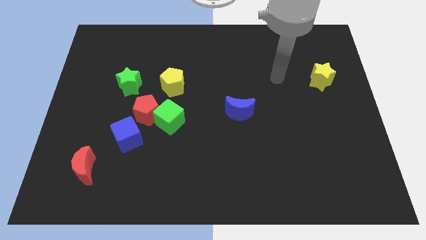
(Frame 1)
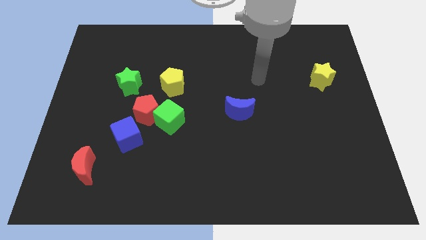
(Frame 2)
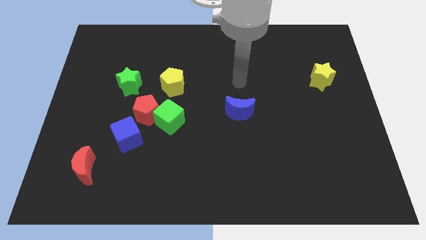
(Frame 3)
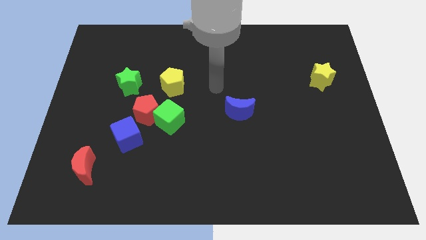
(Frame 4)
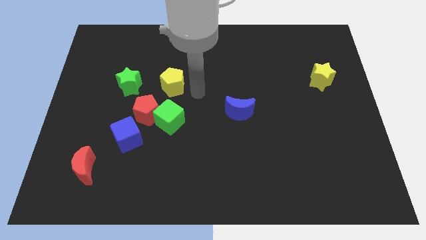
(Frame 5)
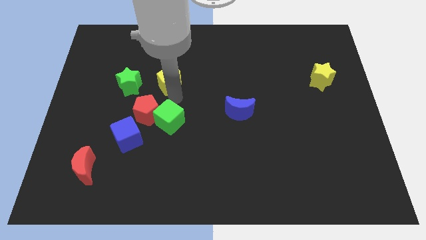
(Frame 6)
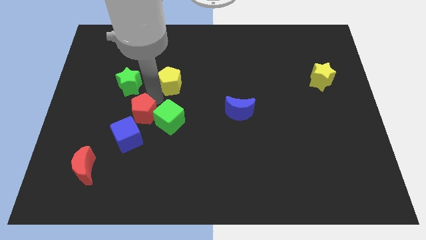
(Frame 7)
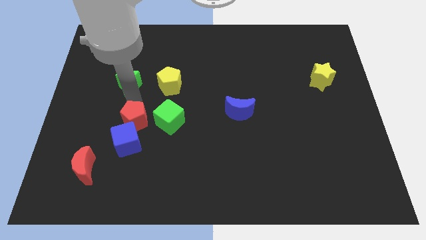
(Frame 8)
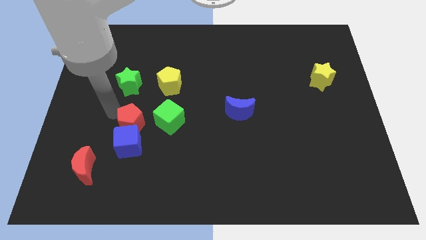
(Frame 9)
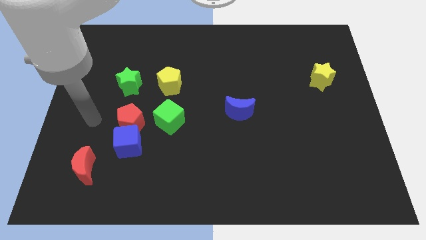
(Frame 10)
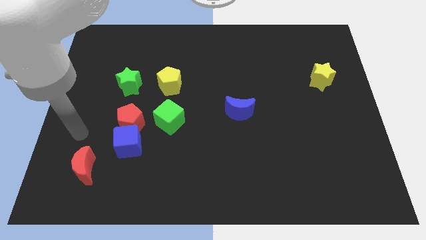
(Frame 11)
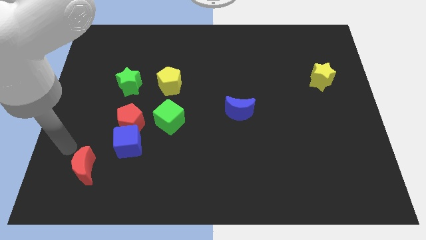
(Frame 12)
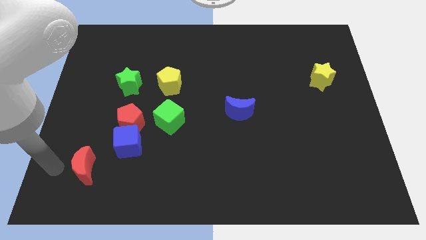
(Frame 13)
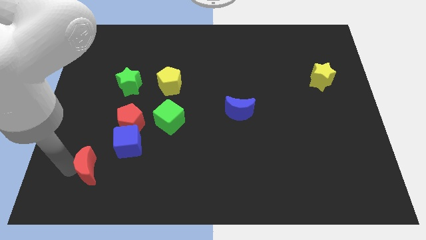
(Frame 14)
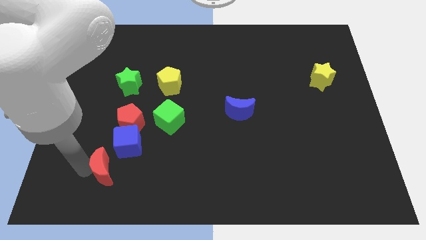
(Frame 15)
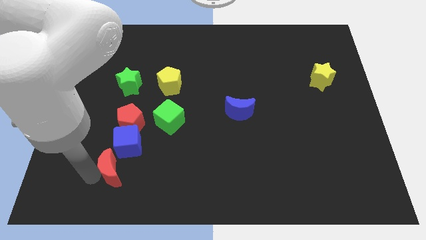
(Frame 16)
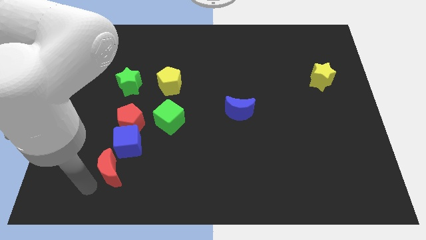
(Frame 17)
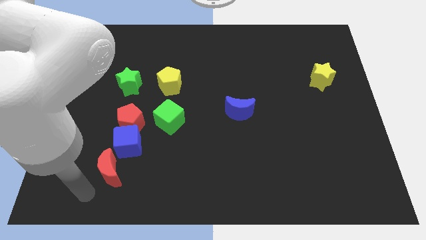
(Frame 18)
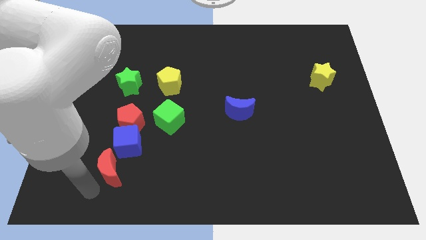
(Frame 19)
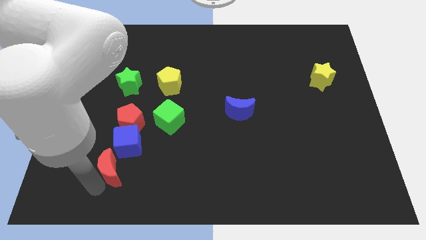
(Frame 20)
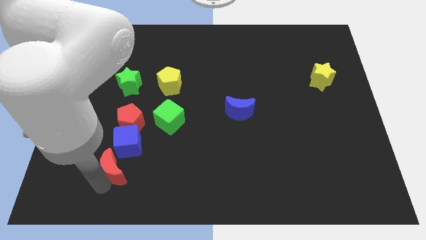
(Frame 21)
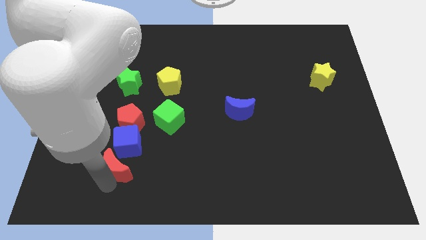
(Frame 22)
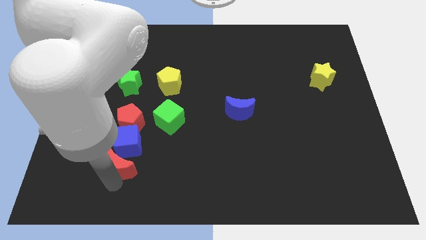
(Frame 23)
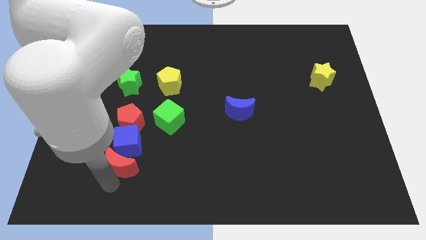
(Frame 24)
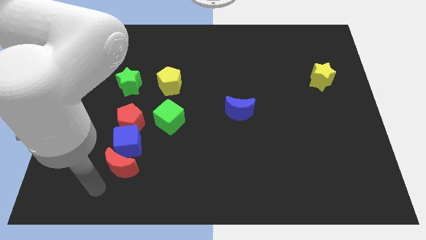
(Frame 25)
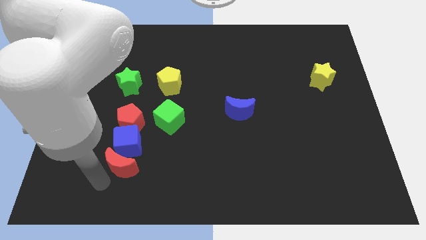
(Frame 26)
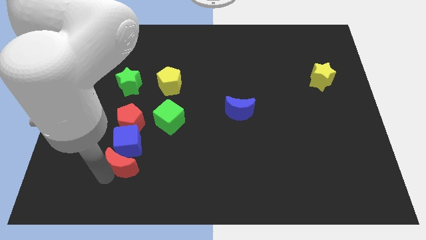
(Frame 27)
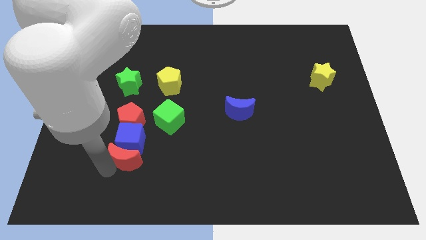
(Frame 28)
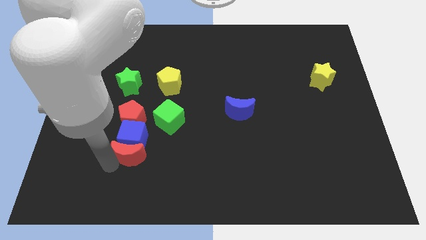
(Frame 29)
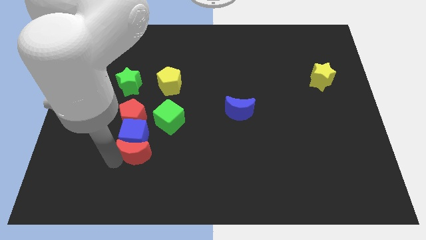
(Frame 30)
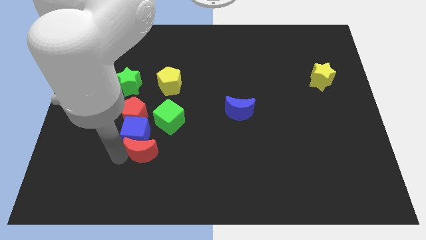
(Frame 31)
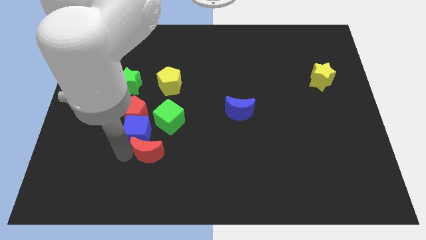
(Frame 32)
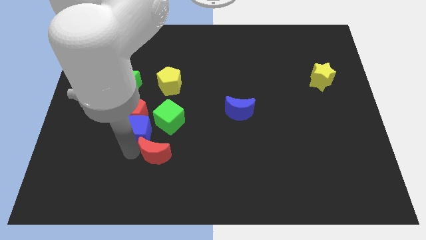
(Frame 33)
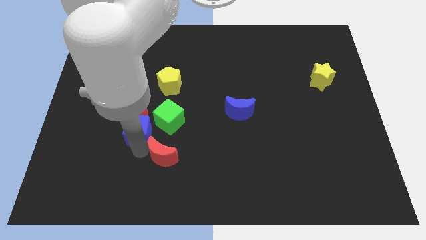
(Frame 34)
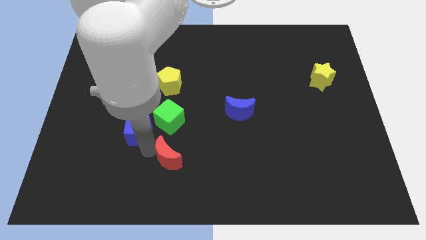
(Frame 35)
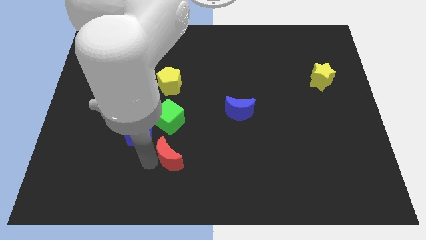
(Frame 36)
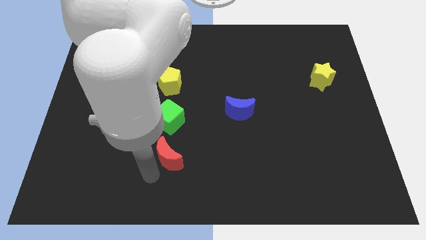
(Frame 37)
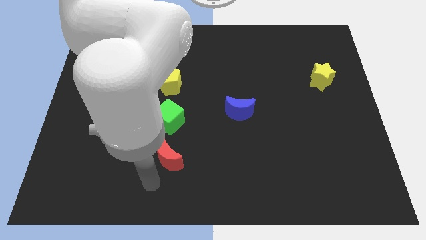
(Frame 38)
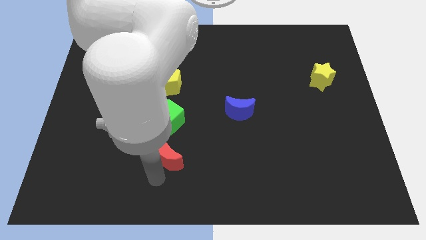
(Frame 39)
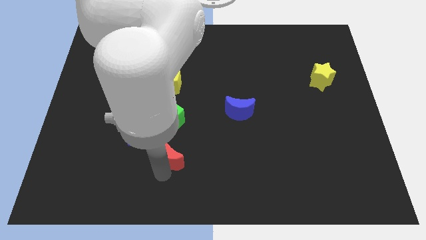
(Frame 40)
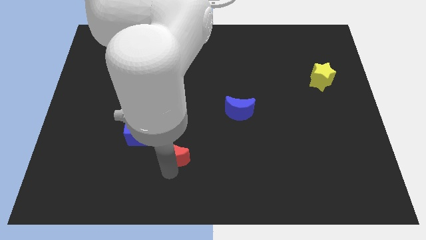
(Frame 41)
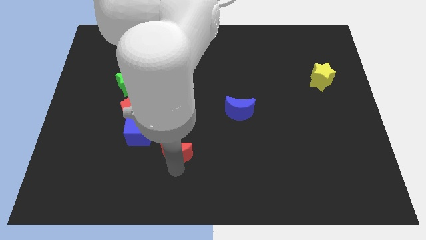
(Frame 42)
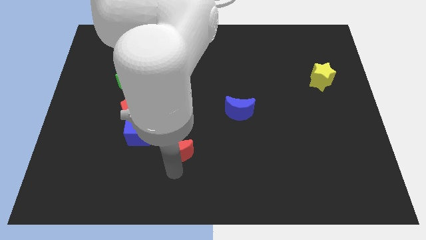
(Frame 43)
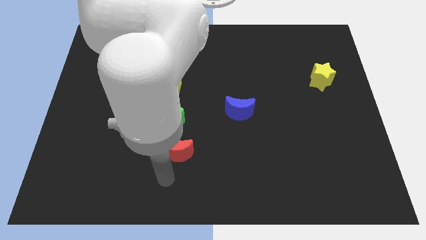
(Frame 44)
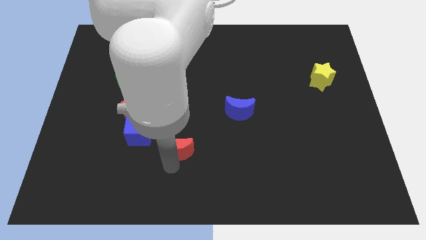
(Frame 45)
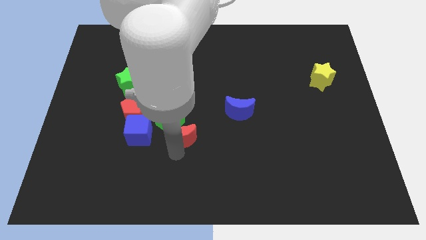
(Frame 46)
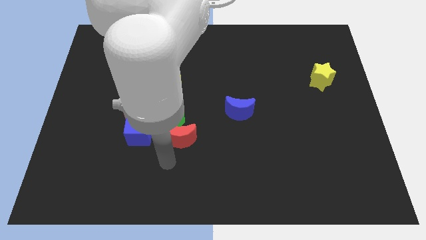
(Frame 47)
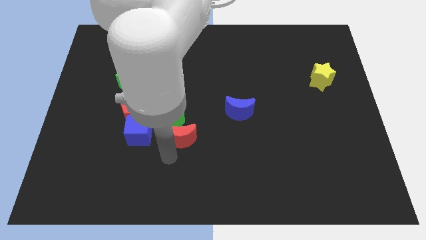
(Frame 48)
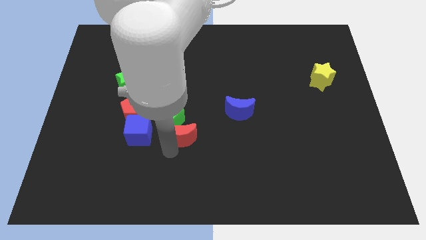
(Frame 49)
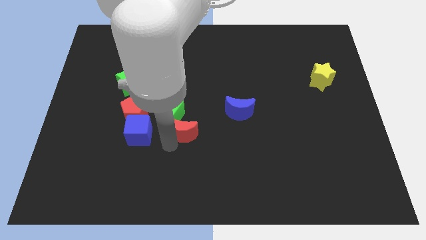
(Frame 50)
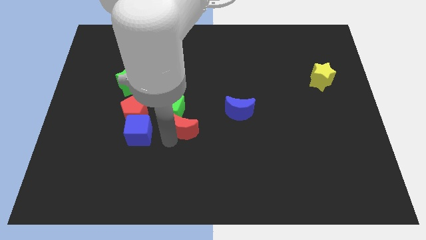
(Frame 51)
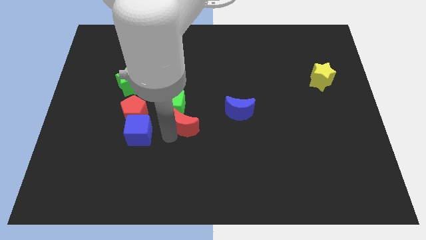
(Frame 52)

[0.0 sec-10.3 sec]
push the red moon up and to the right

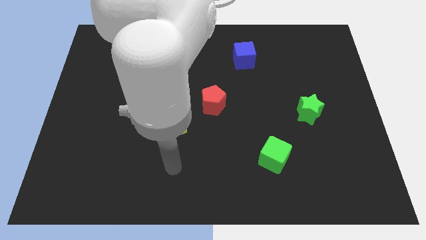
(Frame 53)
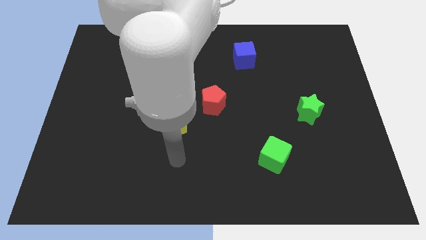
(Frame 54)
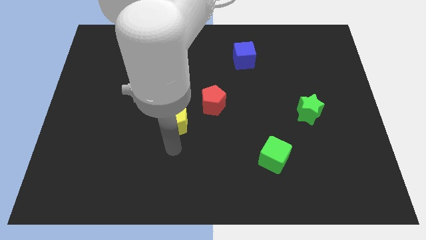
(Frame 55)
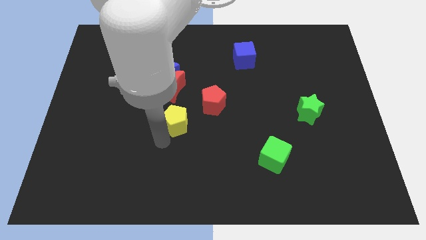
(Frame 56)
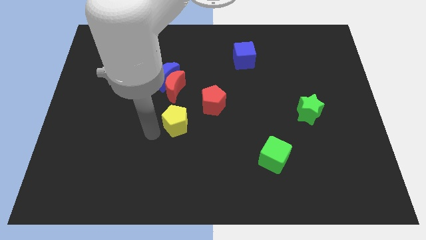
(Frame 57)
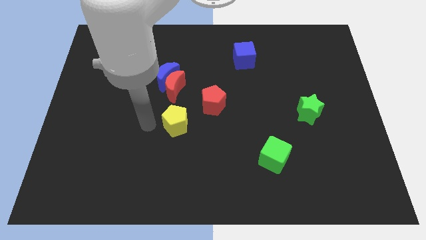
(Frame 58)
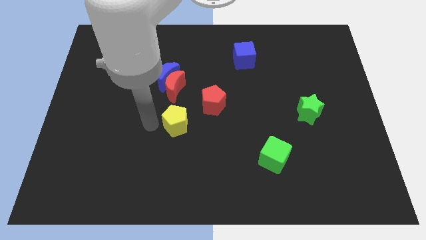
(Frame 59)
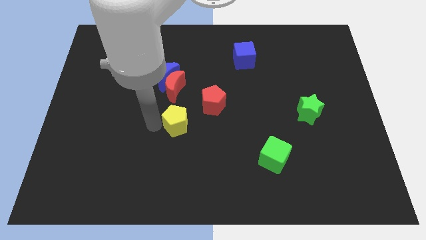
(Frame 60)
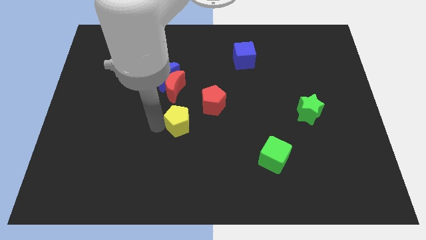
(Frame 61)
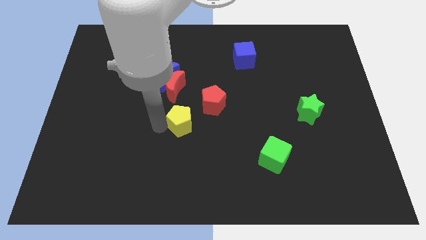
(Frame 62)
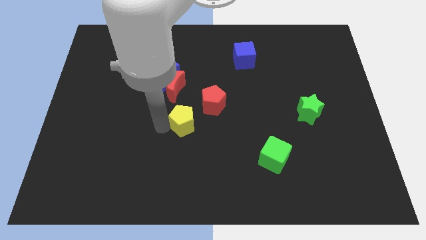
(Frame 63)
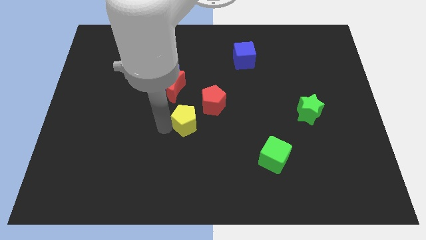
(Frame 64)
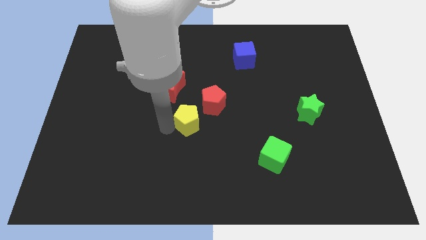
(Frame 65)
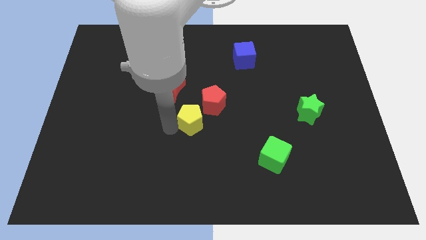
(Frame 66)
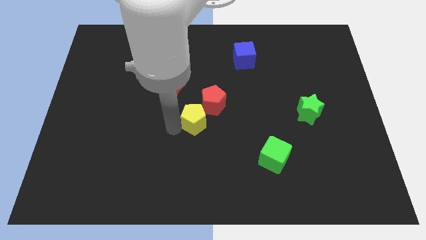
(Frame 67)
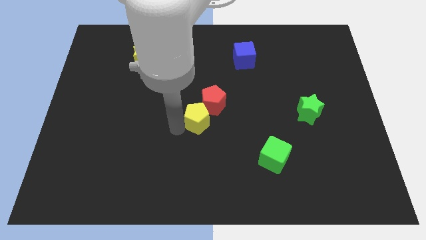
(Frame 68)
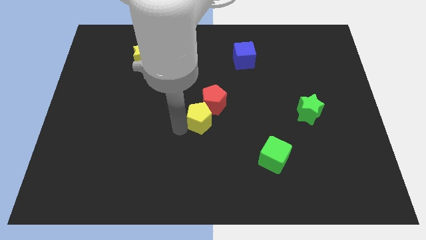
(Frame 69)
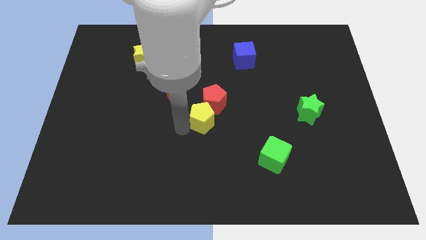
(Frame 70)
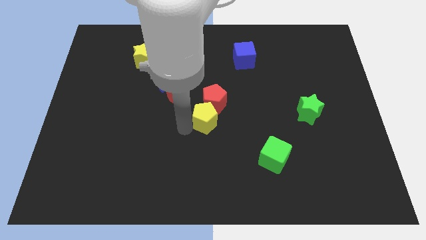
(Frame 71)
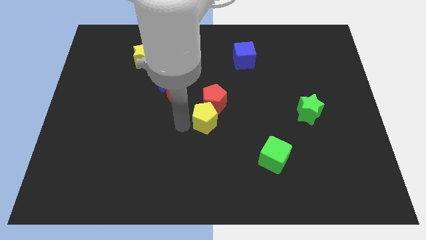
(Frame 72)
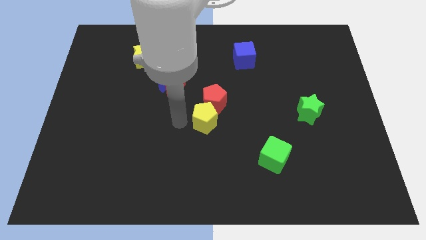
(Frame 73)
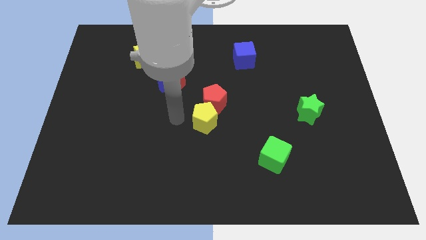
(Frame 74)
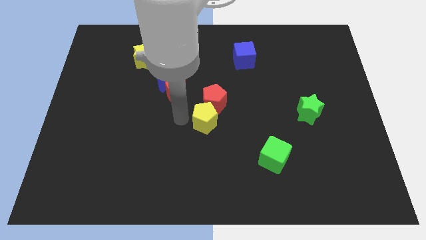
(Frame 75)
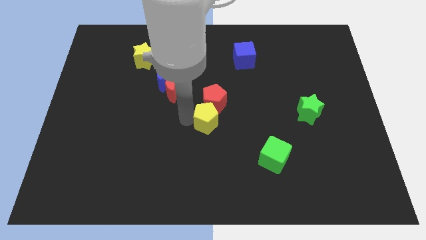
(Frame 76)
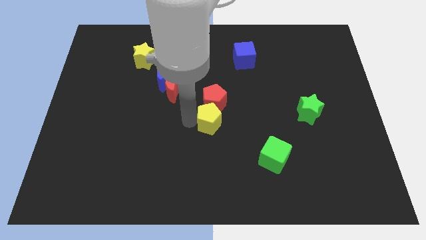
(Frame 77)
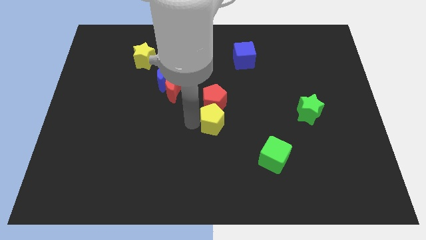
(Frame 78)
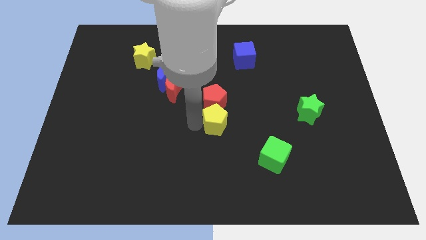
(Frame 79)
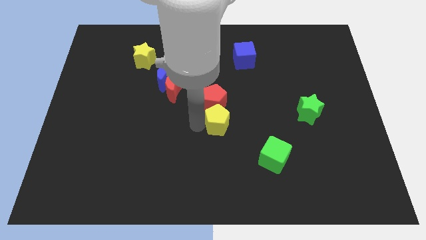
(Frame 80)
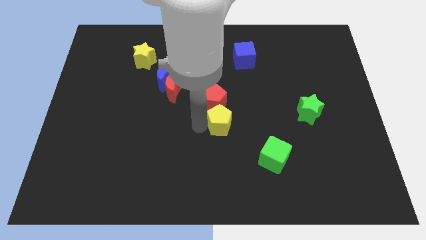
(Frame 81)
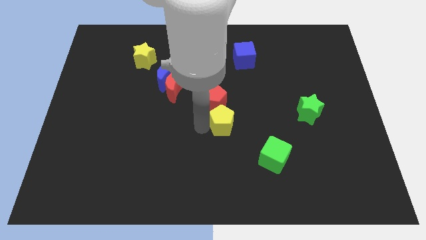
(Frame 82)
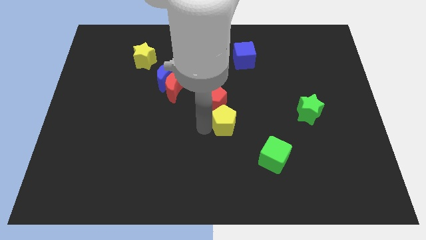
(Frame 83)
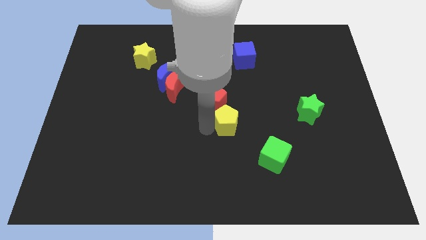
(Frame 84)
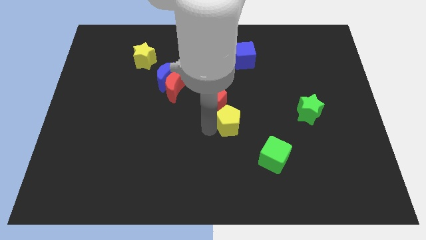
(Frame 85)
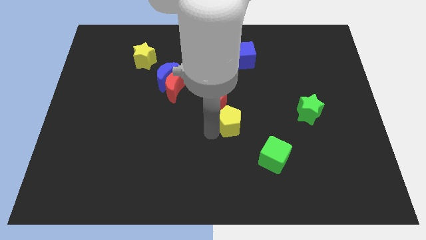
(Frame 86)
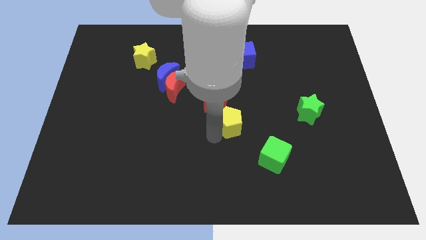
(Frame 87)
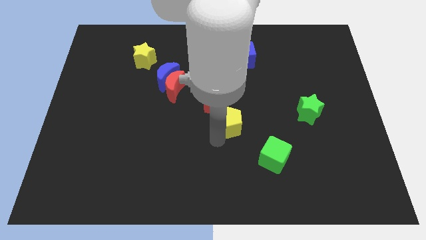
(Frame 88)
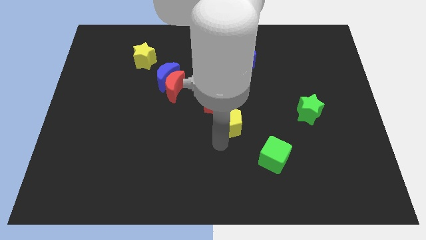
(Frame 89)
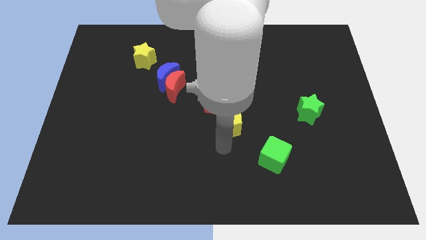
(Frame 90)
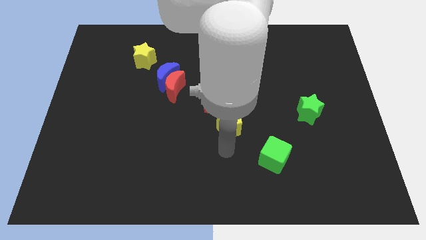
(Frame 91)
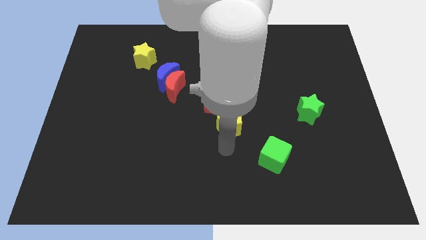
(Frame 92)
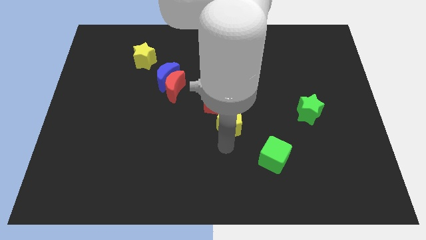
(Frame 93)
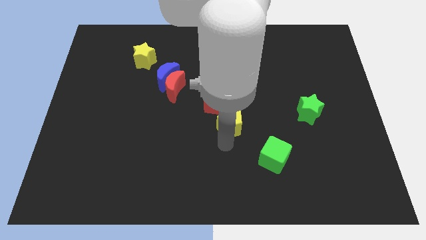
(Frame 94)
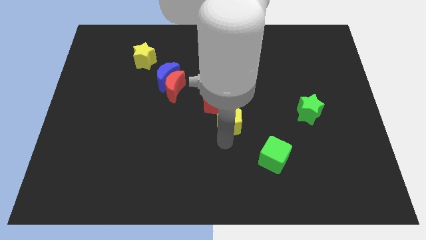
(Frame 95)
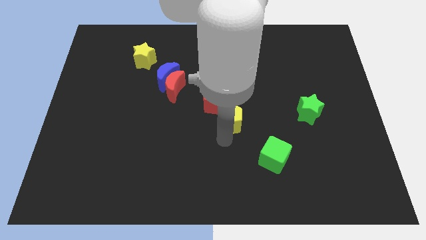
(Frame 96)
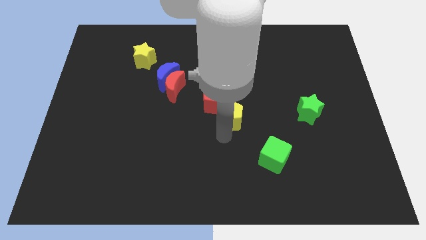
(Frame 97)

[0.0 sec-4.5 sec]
slide the yellow pentagon a little bit up and then right
